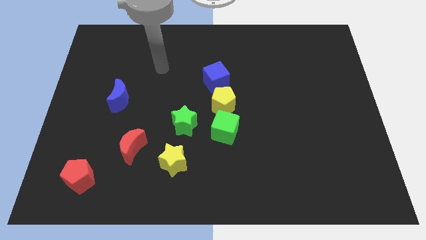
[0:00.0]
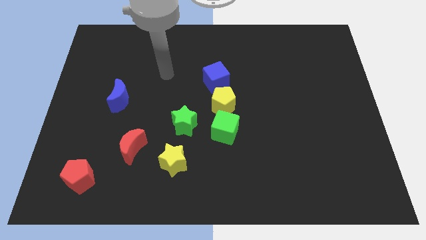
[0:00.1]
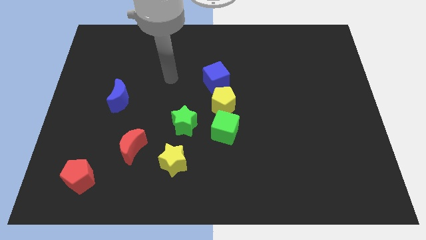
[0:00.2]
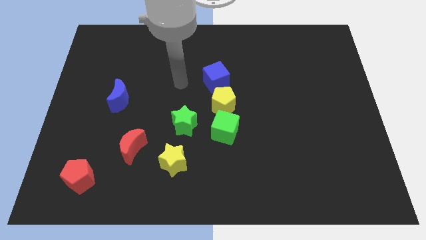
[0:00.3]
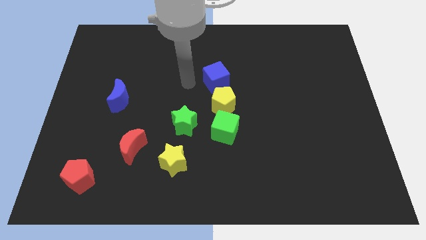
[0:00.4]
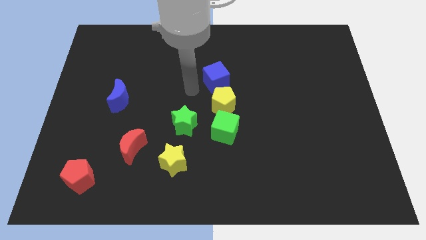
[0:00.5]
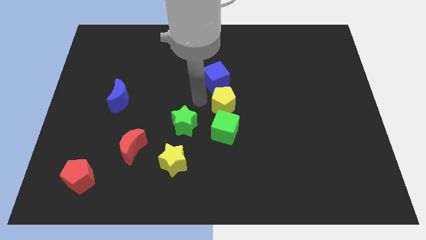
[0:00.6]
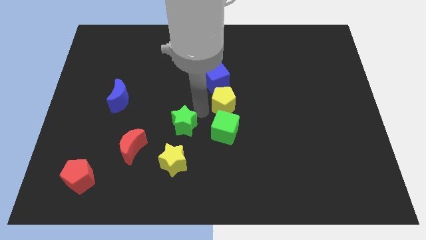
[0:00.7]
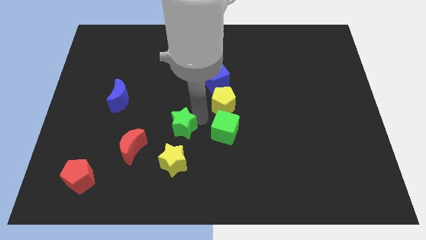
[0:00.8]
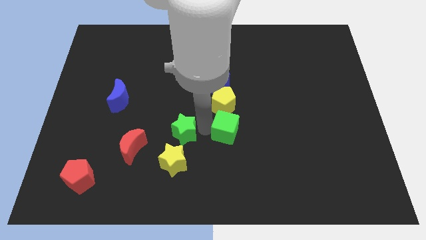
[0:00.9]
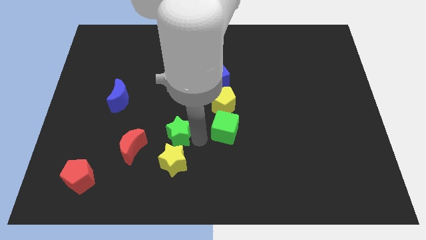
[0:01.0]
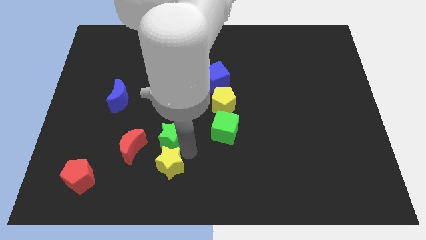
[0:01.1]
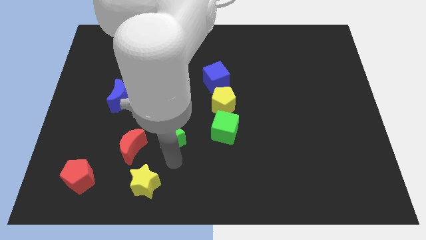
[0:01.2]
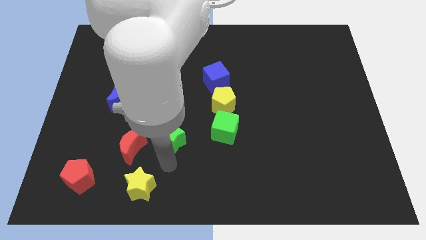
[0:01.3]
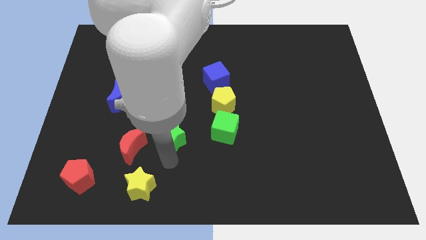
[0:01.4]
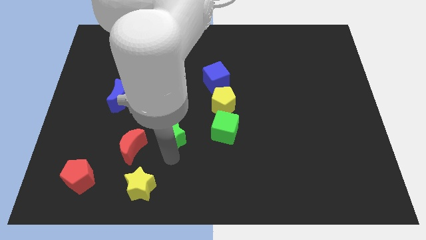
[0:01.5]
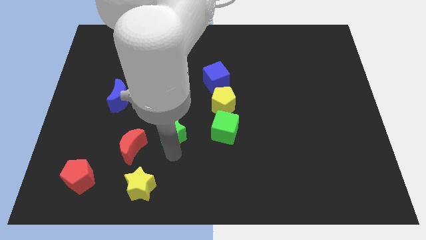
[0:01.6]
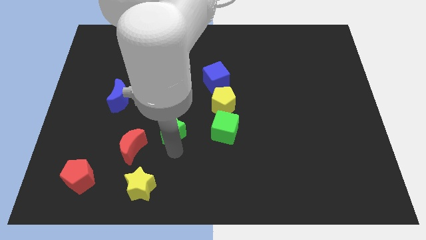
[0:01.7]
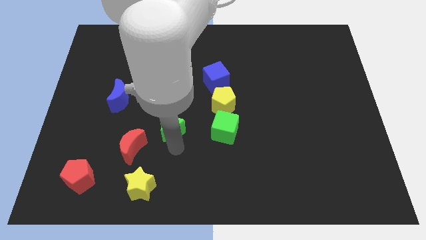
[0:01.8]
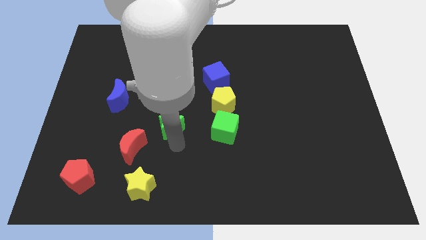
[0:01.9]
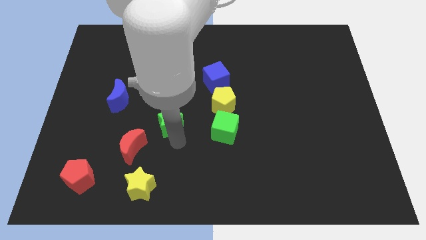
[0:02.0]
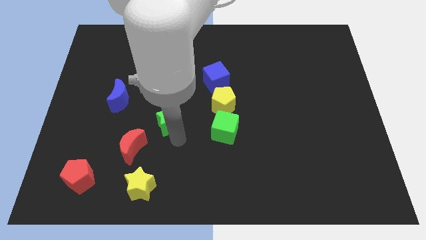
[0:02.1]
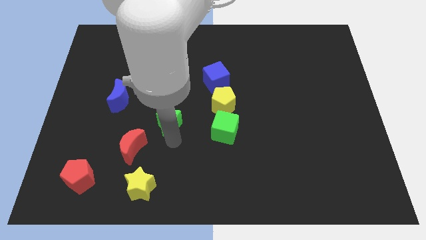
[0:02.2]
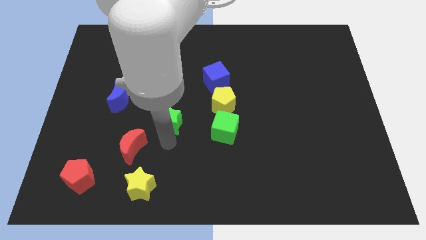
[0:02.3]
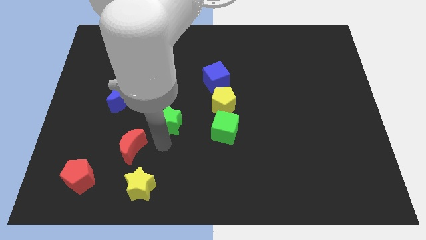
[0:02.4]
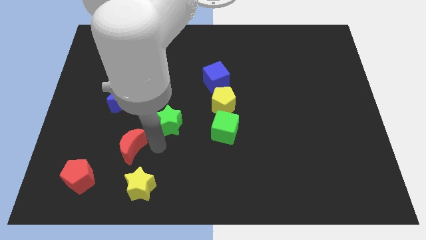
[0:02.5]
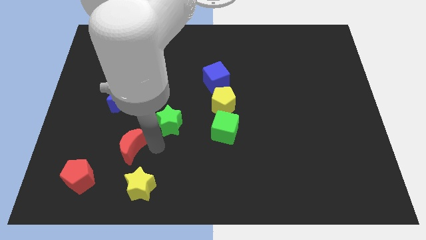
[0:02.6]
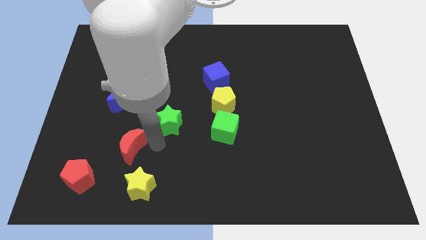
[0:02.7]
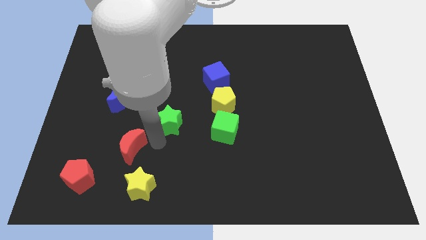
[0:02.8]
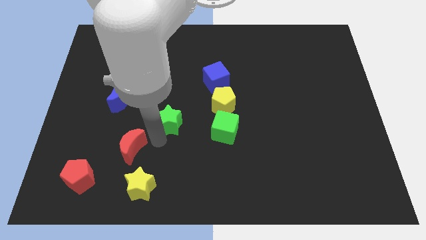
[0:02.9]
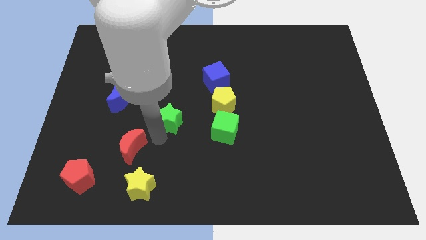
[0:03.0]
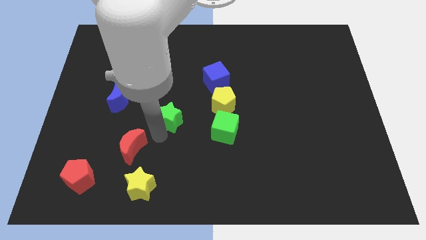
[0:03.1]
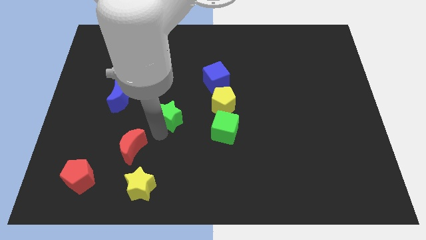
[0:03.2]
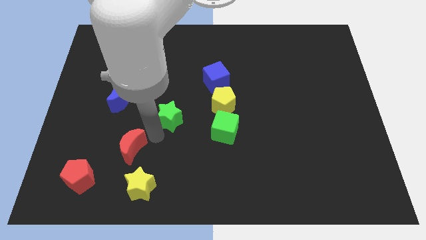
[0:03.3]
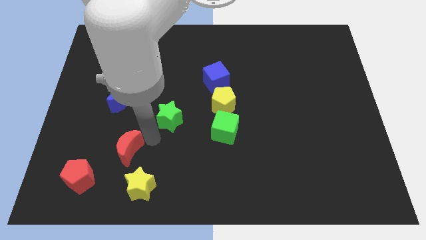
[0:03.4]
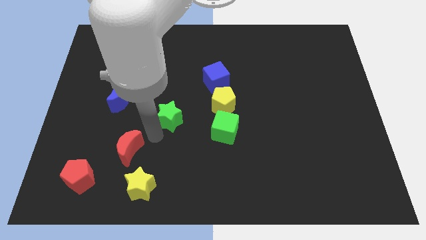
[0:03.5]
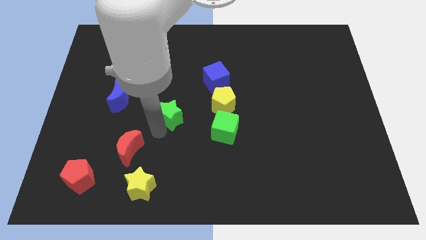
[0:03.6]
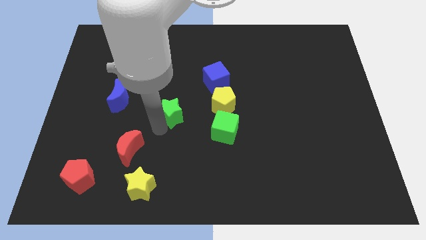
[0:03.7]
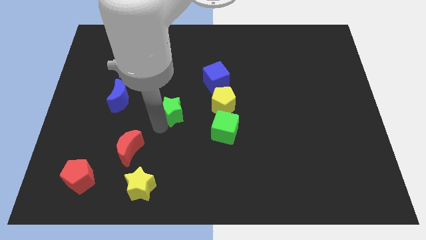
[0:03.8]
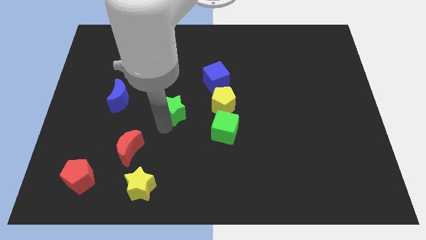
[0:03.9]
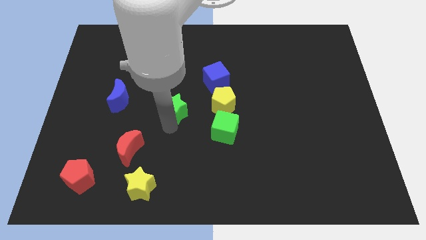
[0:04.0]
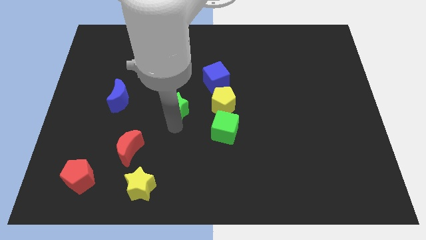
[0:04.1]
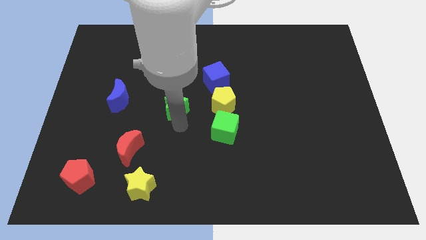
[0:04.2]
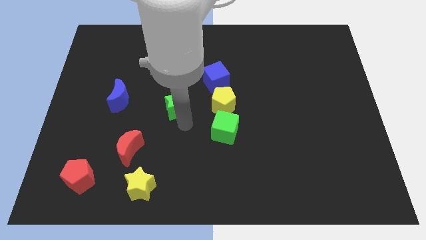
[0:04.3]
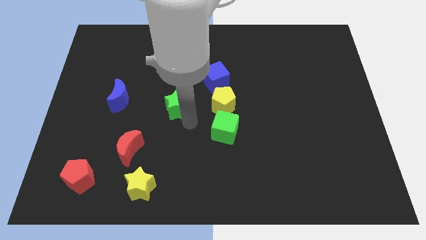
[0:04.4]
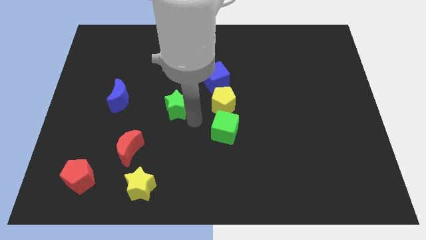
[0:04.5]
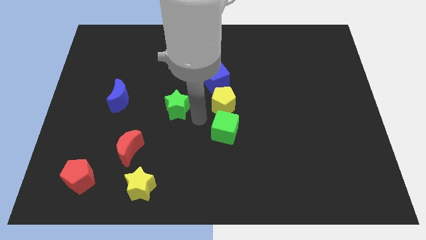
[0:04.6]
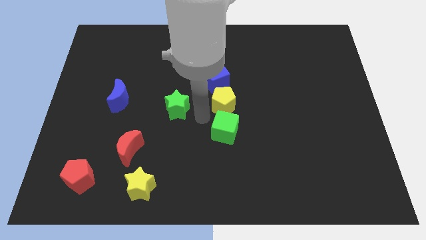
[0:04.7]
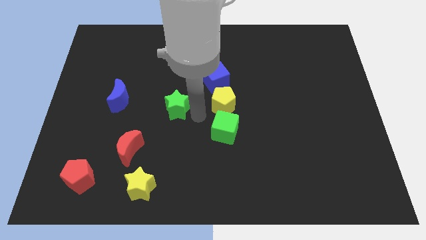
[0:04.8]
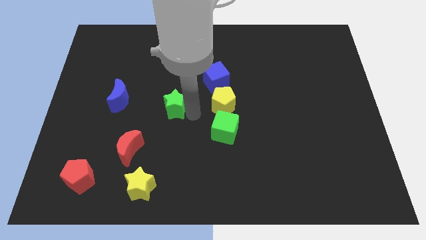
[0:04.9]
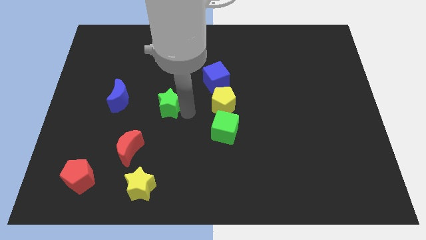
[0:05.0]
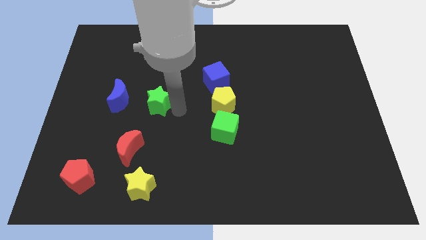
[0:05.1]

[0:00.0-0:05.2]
slightly move the green star up and to the left diagonally

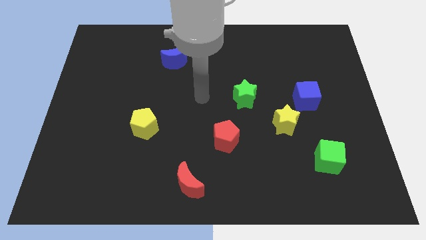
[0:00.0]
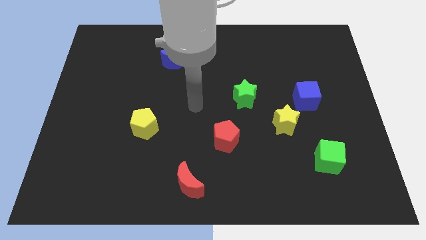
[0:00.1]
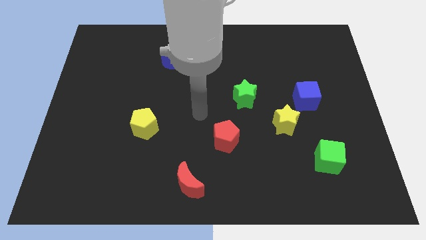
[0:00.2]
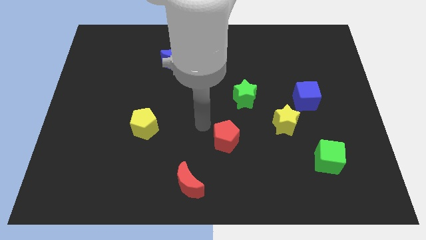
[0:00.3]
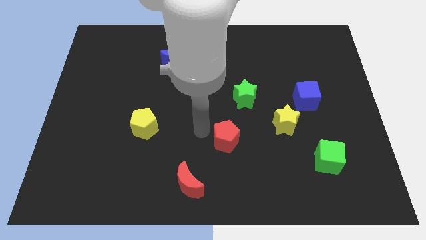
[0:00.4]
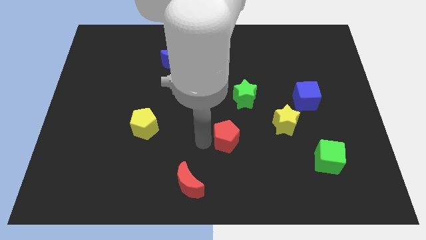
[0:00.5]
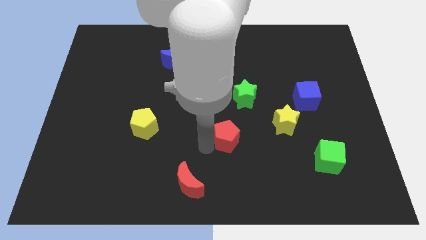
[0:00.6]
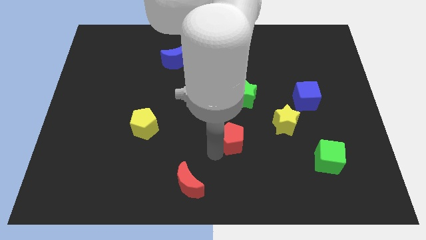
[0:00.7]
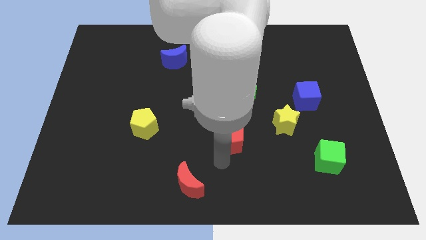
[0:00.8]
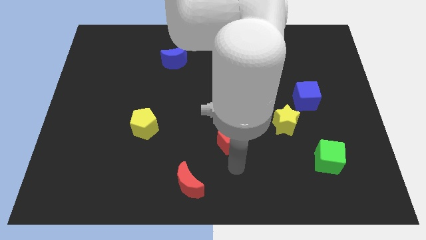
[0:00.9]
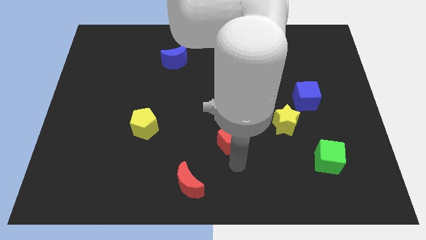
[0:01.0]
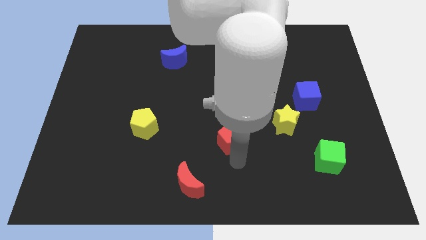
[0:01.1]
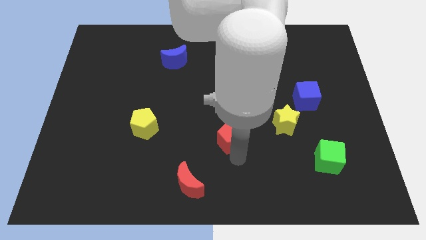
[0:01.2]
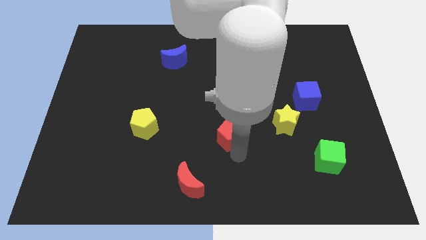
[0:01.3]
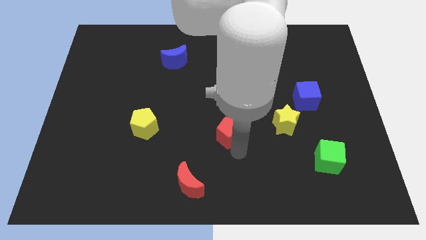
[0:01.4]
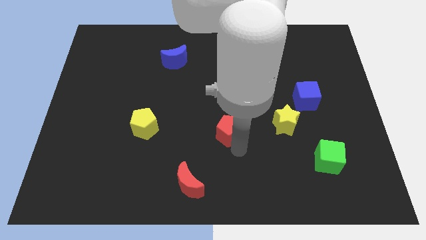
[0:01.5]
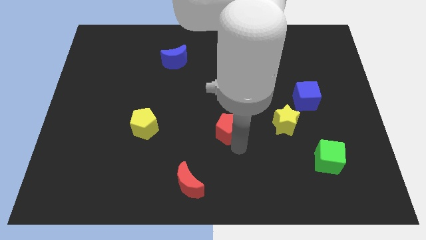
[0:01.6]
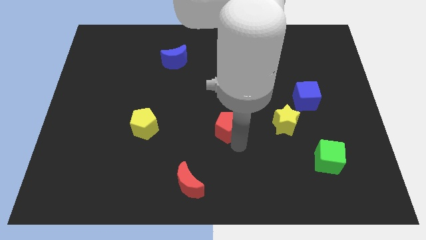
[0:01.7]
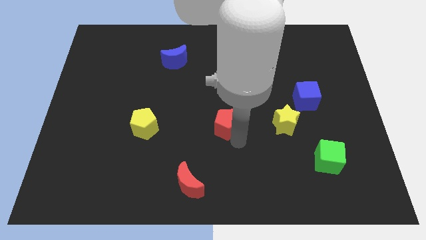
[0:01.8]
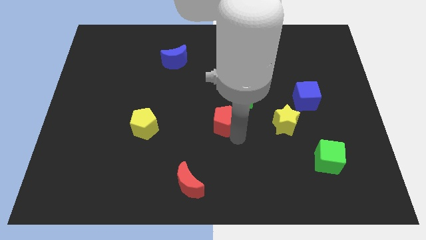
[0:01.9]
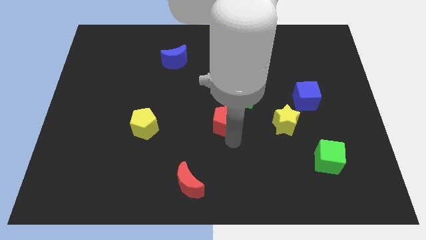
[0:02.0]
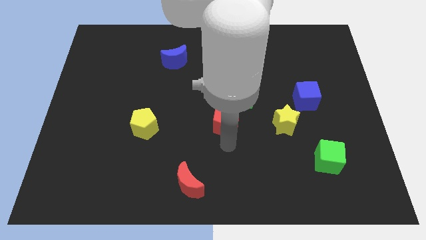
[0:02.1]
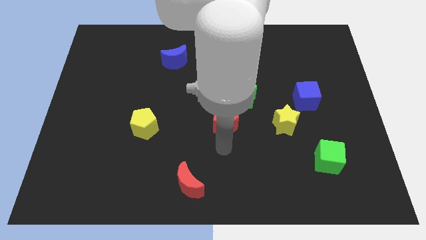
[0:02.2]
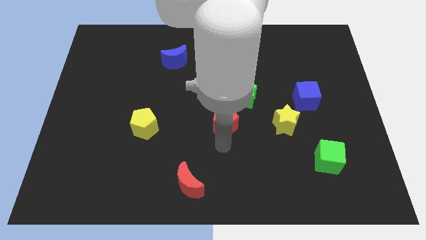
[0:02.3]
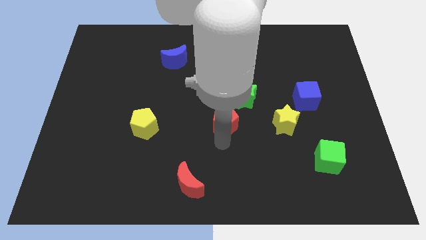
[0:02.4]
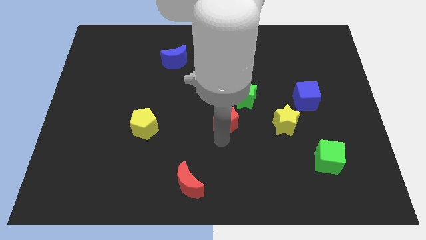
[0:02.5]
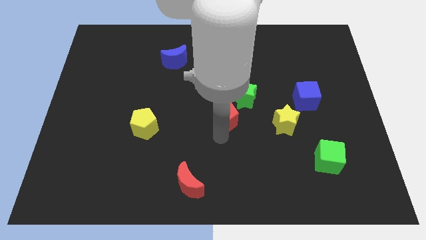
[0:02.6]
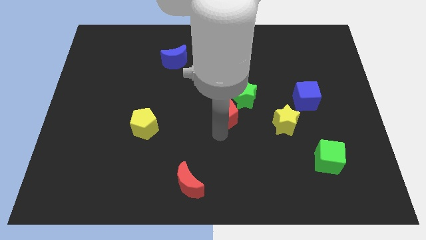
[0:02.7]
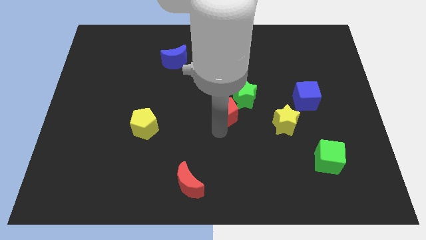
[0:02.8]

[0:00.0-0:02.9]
slightly move the red pentagon up
